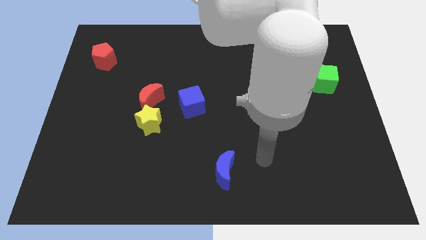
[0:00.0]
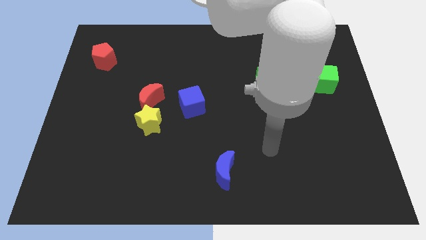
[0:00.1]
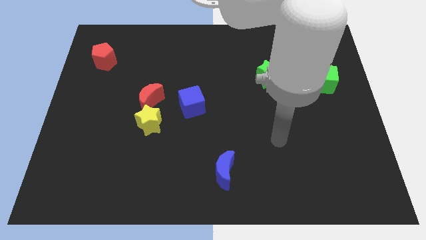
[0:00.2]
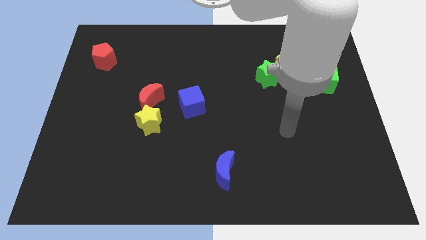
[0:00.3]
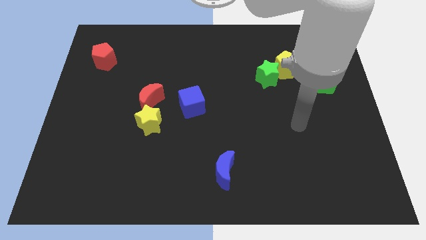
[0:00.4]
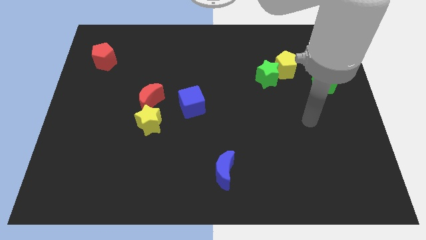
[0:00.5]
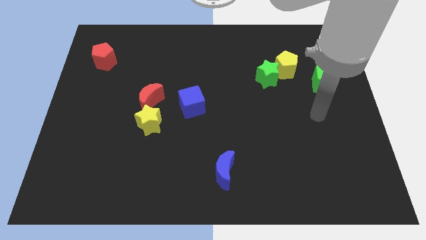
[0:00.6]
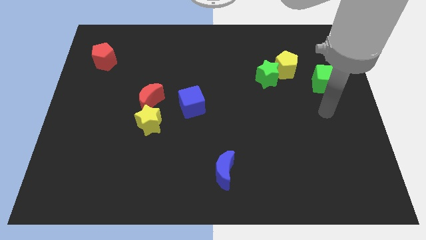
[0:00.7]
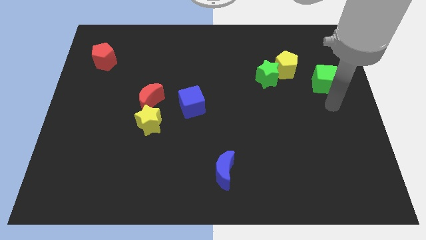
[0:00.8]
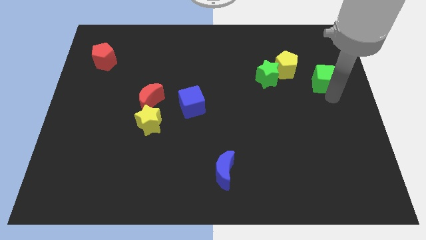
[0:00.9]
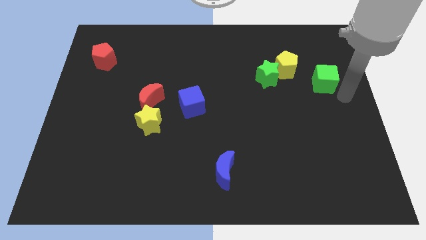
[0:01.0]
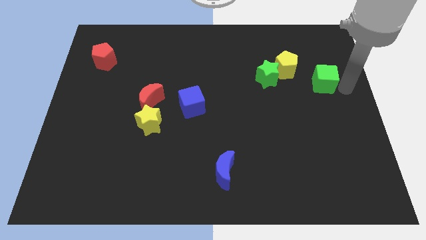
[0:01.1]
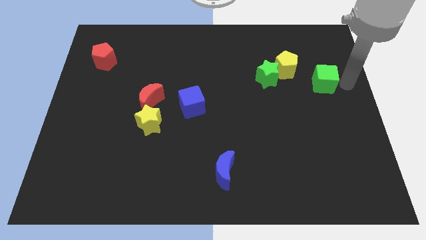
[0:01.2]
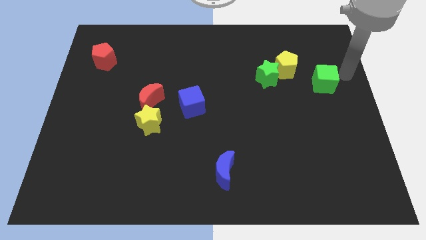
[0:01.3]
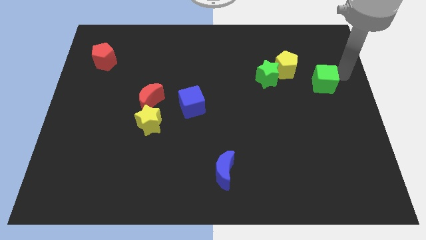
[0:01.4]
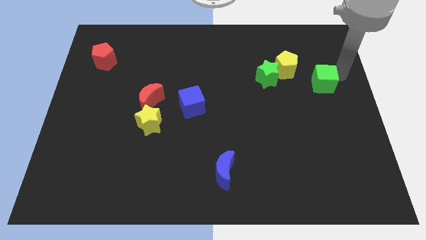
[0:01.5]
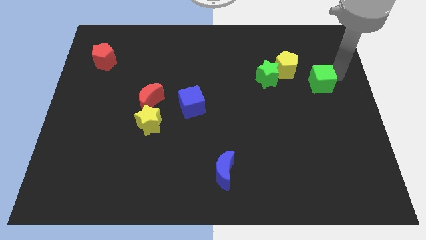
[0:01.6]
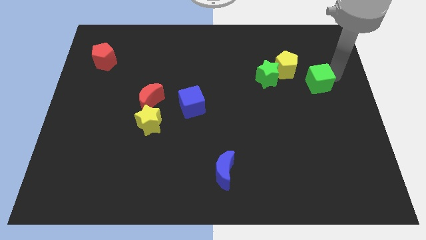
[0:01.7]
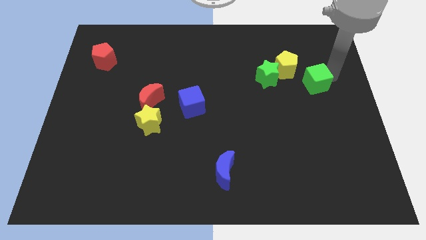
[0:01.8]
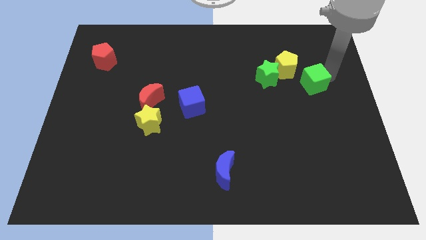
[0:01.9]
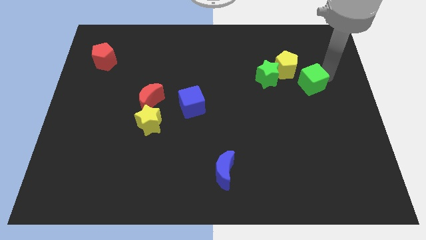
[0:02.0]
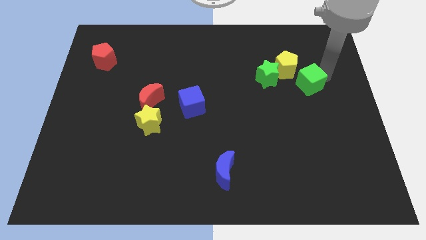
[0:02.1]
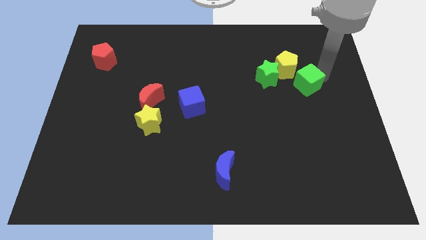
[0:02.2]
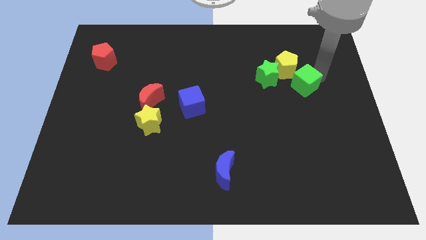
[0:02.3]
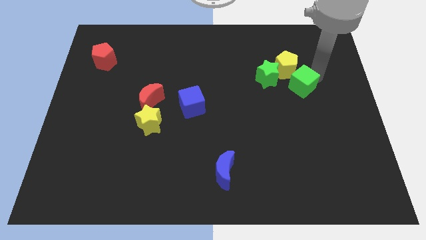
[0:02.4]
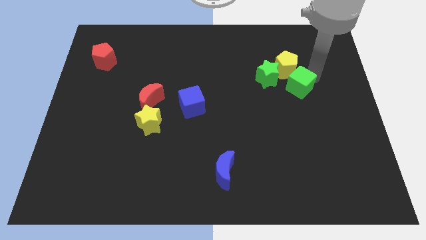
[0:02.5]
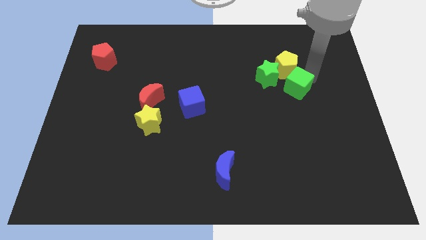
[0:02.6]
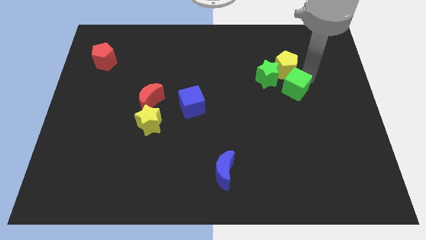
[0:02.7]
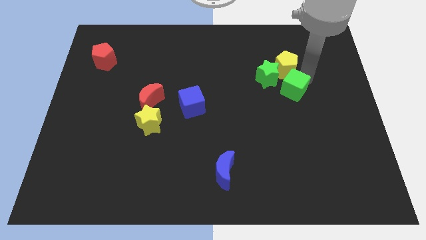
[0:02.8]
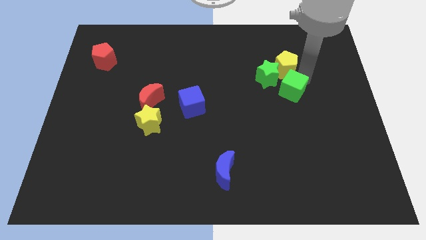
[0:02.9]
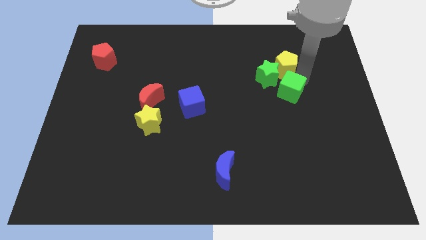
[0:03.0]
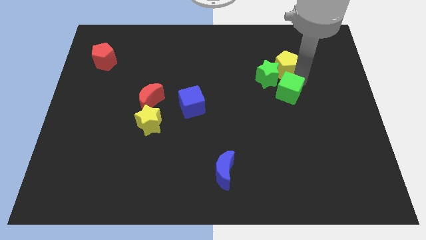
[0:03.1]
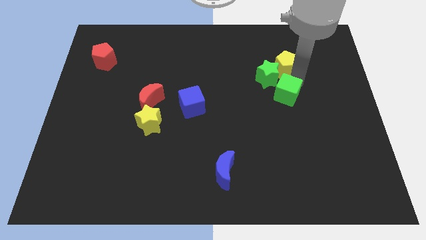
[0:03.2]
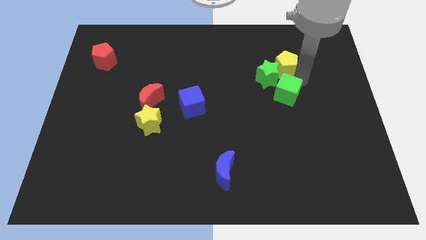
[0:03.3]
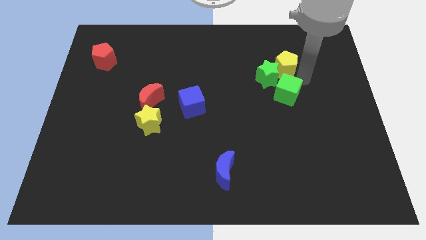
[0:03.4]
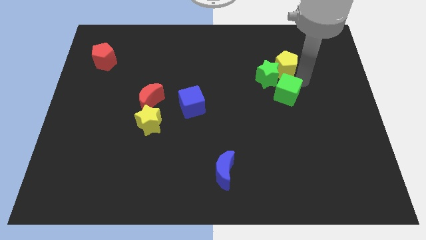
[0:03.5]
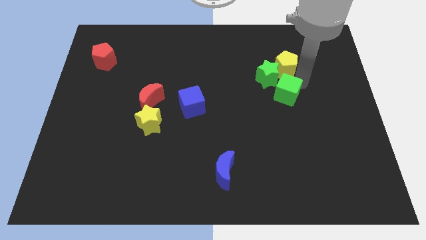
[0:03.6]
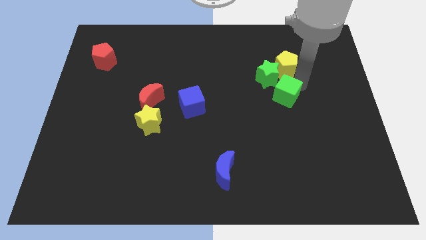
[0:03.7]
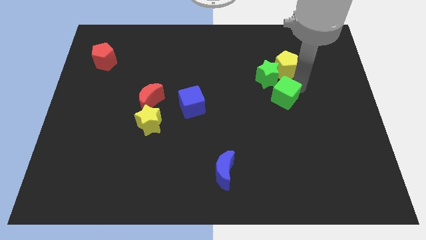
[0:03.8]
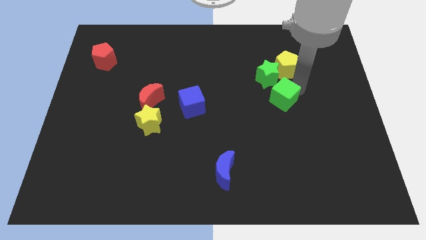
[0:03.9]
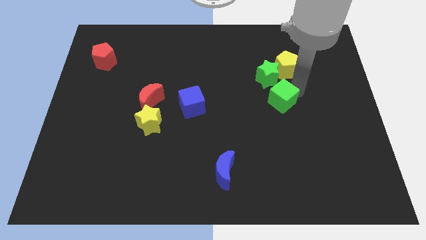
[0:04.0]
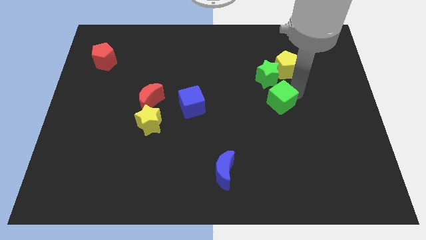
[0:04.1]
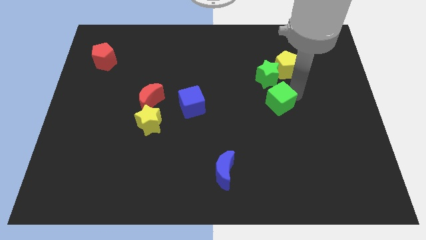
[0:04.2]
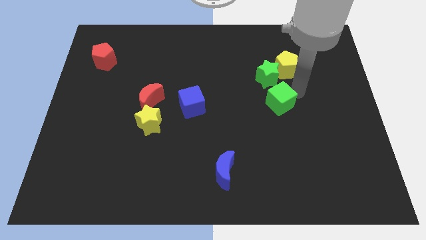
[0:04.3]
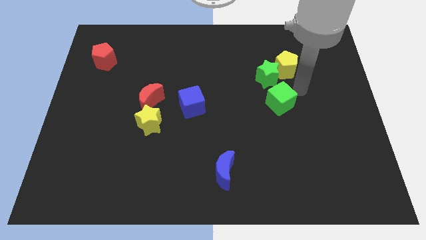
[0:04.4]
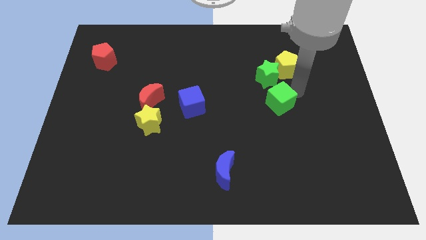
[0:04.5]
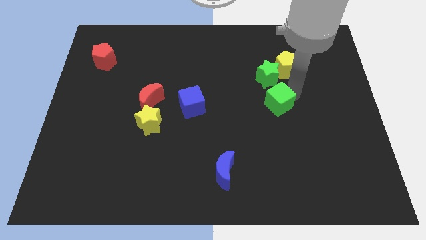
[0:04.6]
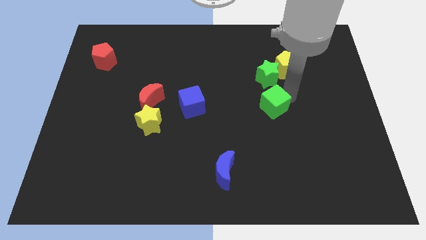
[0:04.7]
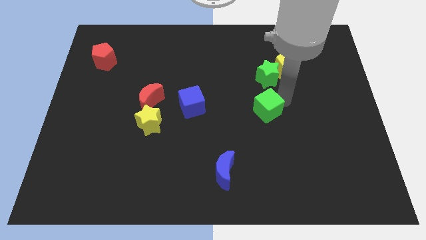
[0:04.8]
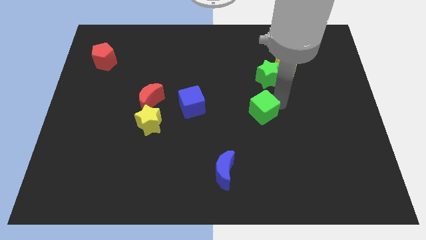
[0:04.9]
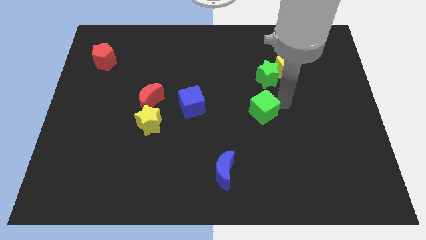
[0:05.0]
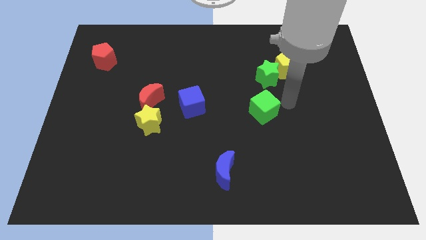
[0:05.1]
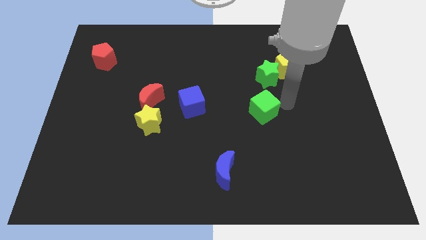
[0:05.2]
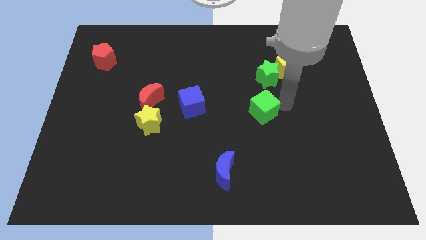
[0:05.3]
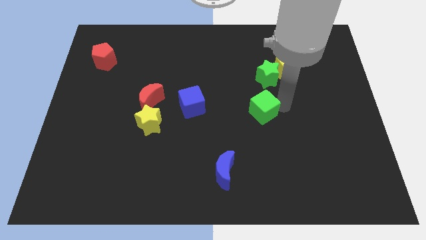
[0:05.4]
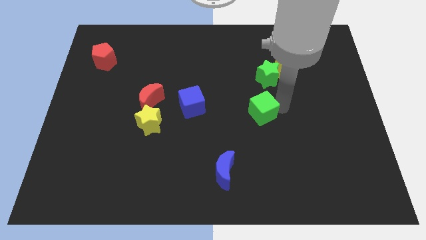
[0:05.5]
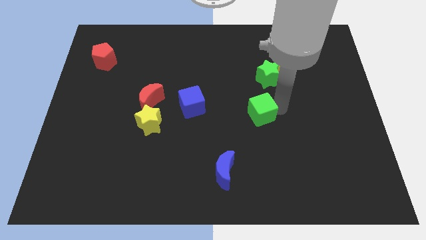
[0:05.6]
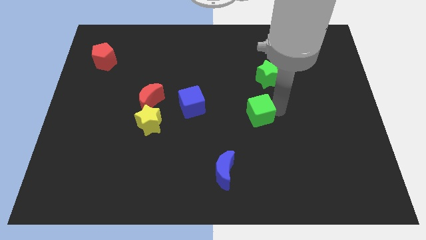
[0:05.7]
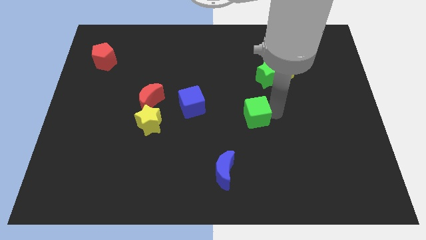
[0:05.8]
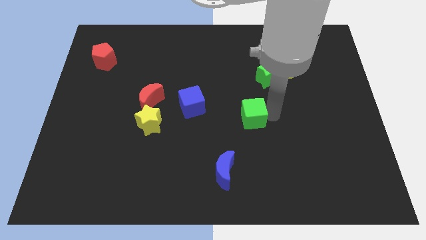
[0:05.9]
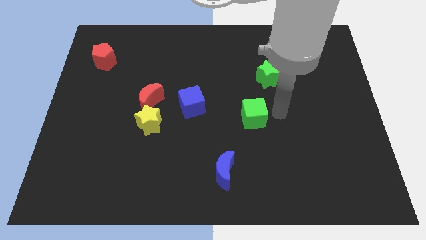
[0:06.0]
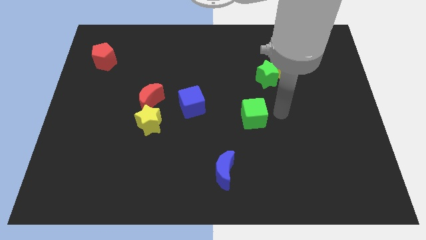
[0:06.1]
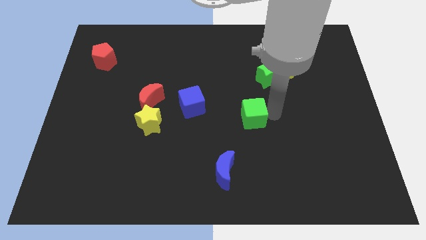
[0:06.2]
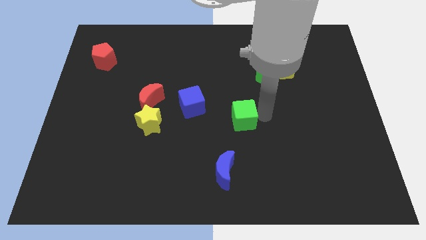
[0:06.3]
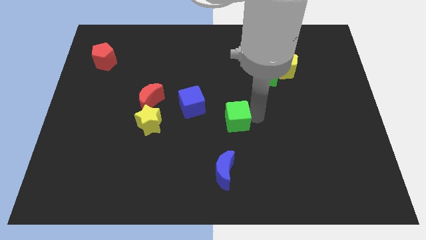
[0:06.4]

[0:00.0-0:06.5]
put the green cube to the bottom right side of the blue cube
